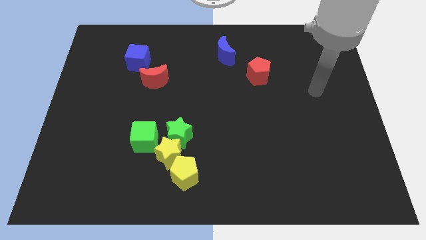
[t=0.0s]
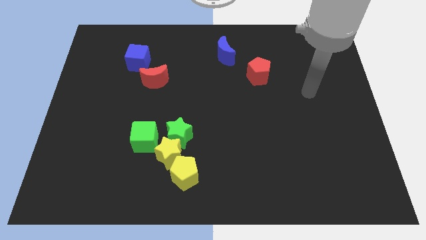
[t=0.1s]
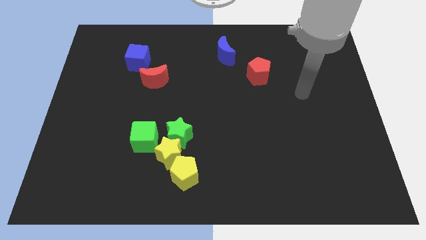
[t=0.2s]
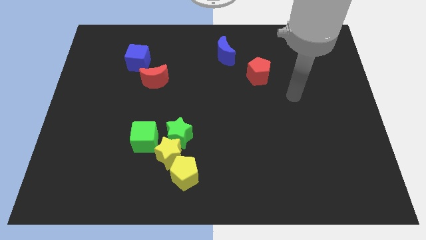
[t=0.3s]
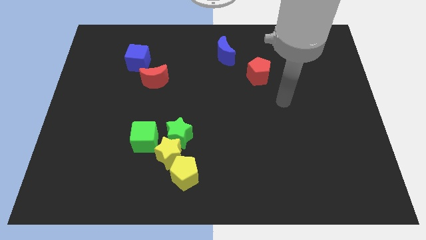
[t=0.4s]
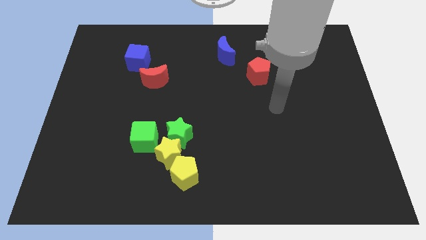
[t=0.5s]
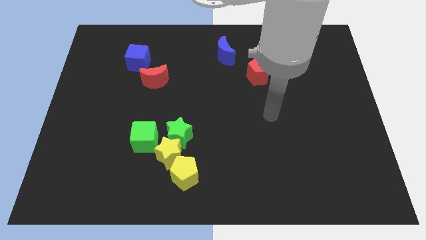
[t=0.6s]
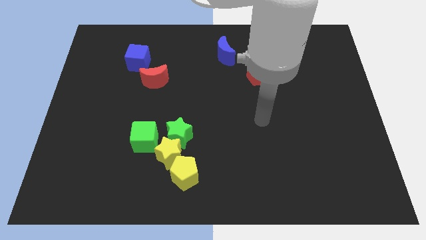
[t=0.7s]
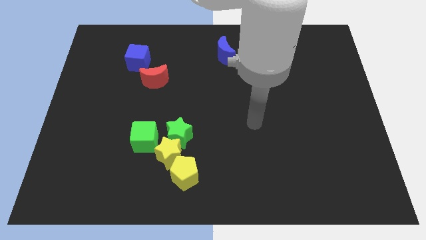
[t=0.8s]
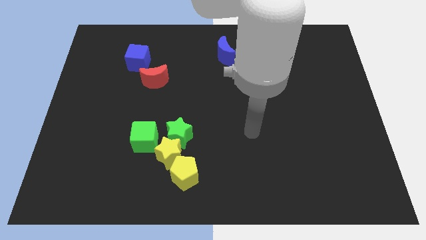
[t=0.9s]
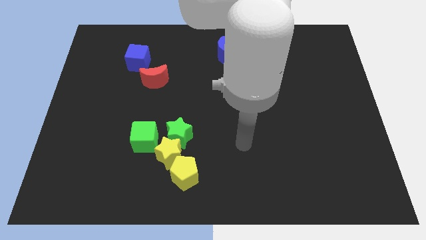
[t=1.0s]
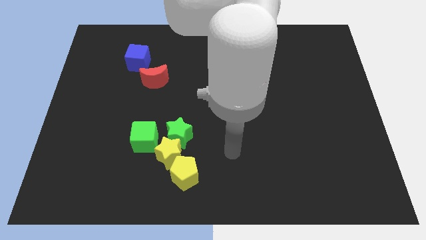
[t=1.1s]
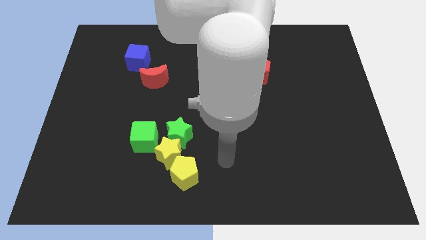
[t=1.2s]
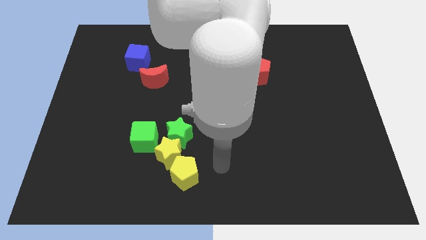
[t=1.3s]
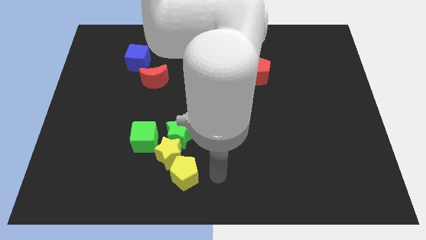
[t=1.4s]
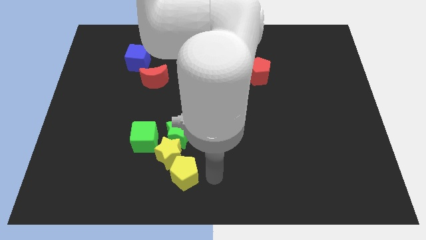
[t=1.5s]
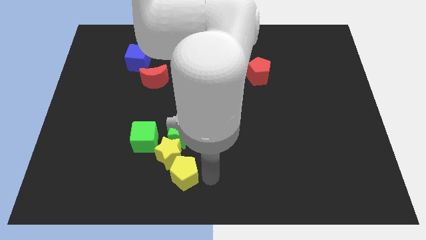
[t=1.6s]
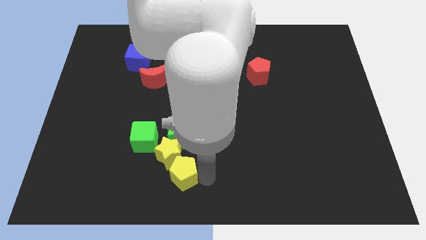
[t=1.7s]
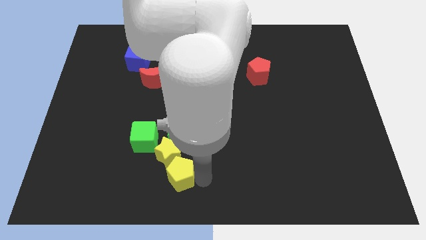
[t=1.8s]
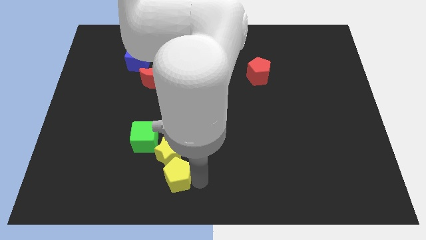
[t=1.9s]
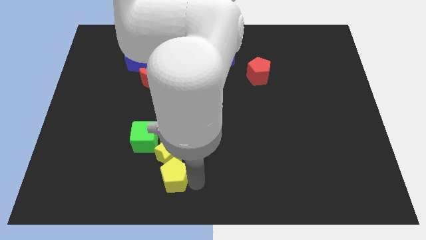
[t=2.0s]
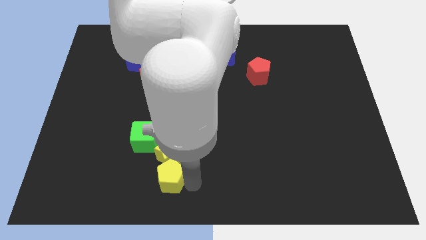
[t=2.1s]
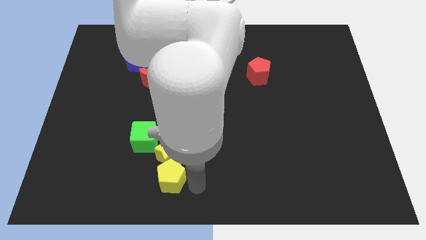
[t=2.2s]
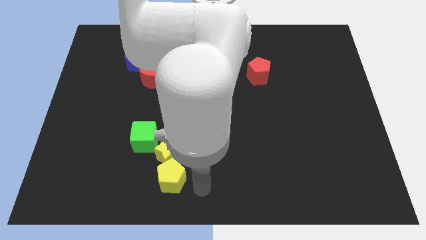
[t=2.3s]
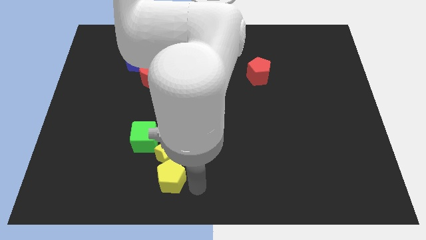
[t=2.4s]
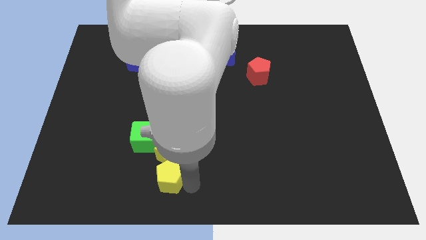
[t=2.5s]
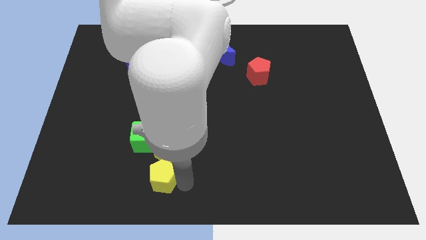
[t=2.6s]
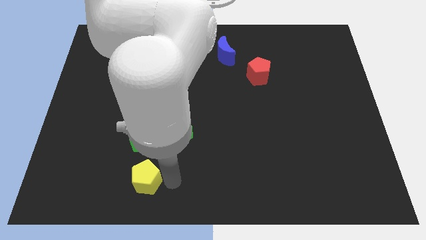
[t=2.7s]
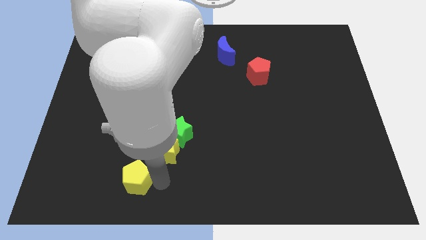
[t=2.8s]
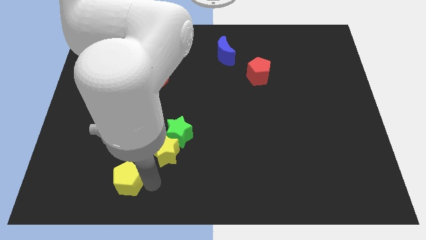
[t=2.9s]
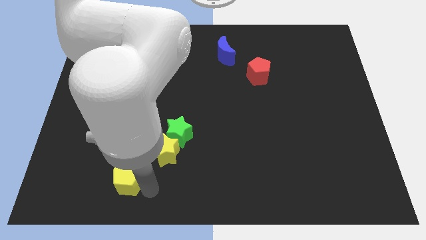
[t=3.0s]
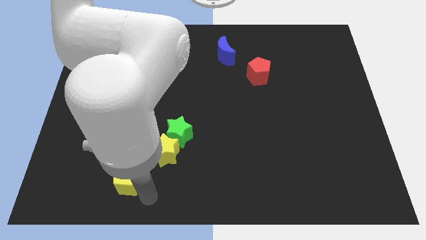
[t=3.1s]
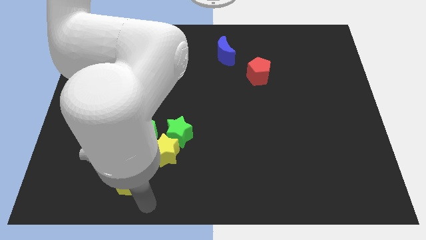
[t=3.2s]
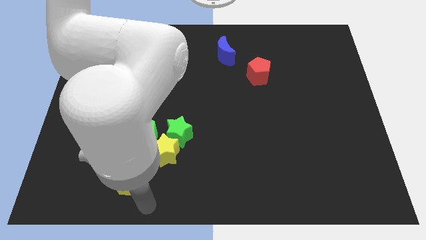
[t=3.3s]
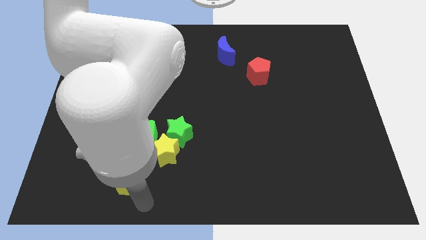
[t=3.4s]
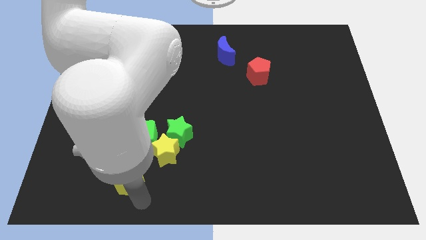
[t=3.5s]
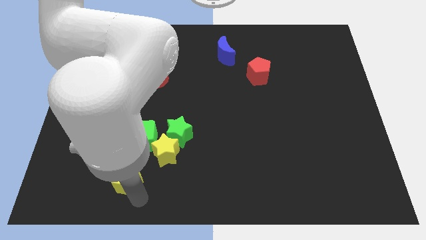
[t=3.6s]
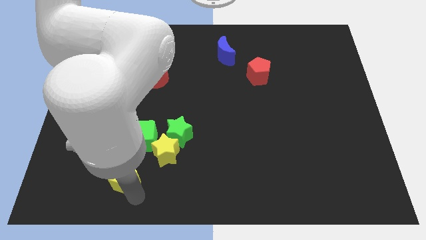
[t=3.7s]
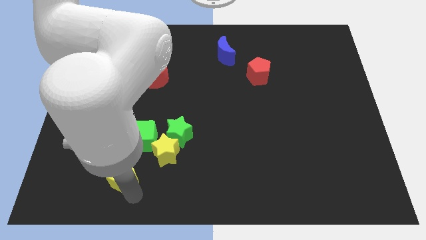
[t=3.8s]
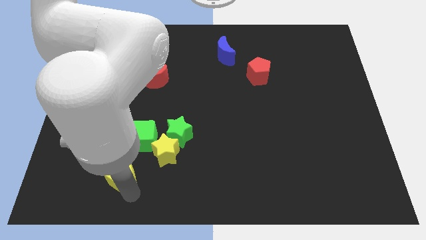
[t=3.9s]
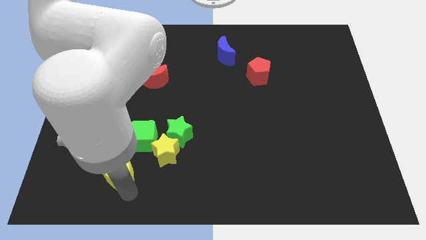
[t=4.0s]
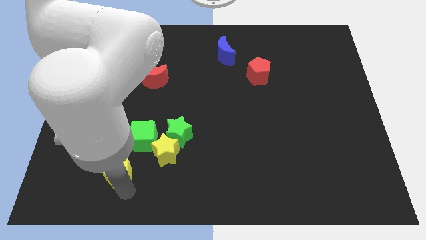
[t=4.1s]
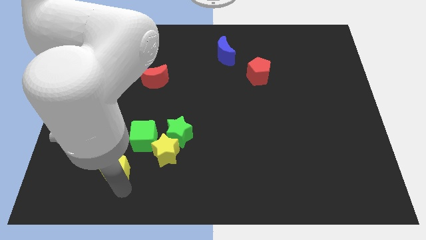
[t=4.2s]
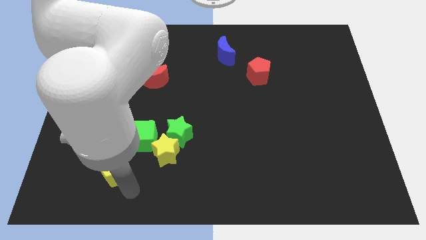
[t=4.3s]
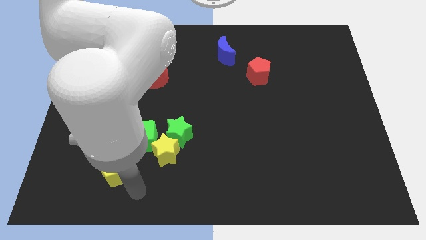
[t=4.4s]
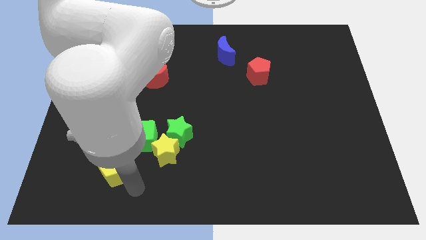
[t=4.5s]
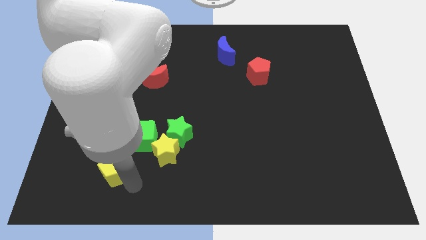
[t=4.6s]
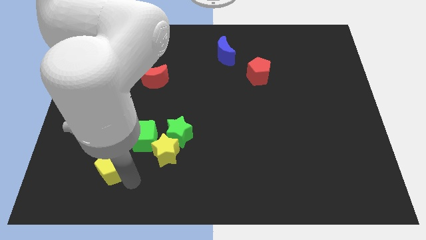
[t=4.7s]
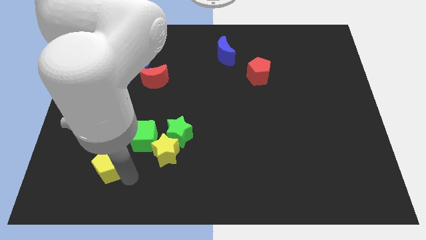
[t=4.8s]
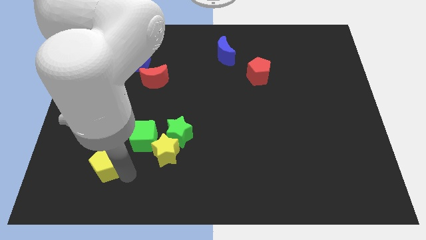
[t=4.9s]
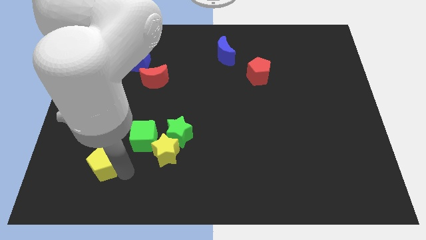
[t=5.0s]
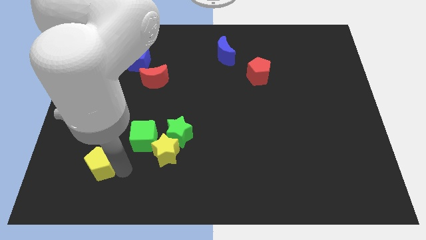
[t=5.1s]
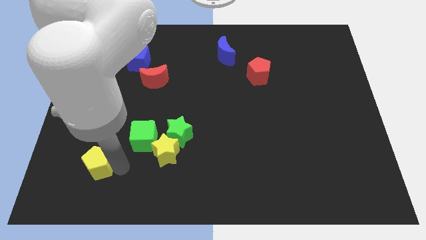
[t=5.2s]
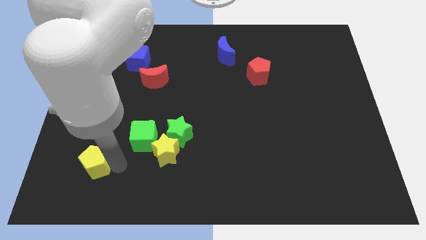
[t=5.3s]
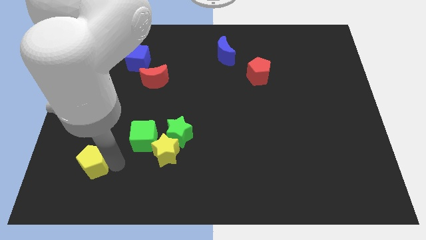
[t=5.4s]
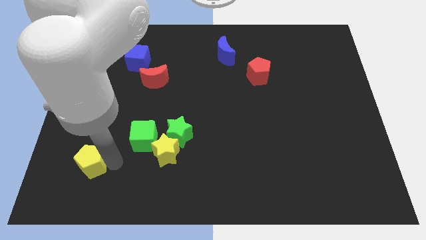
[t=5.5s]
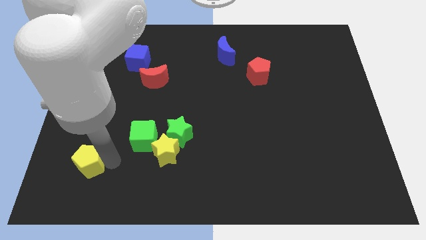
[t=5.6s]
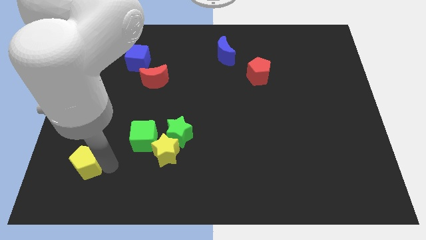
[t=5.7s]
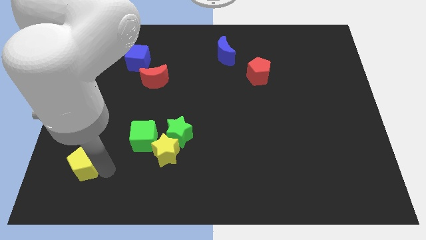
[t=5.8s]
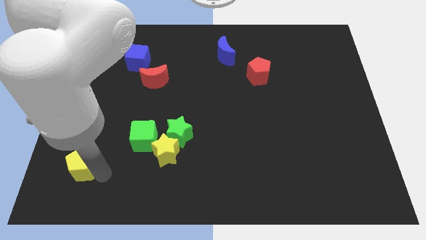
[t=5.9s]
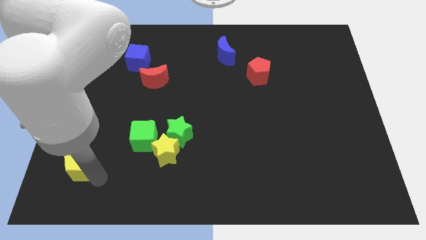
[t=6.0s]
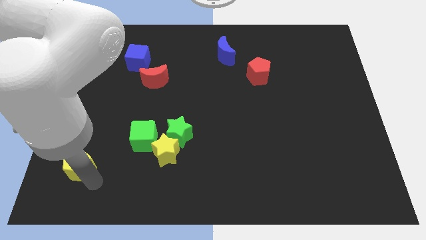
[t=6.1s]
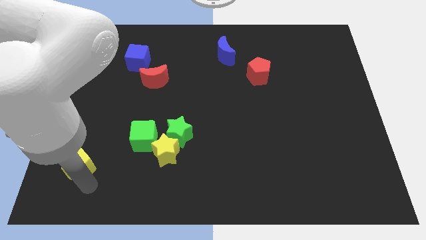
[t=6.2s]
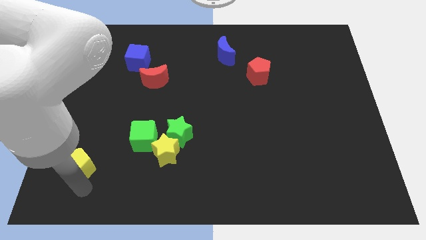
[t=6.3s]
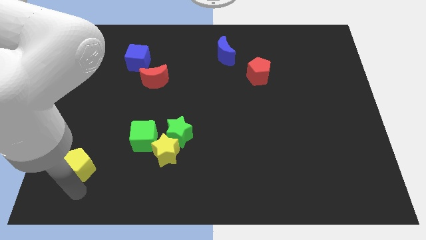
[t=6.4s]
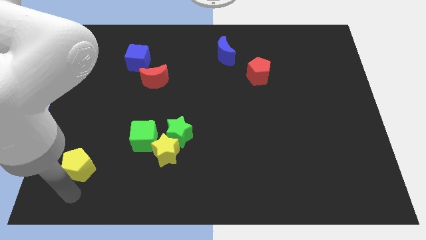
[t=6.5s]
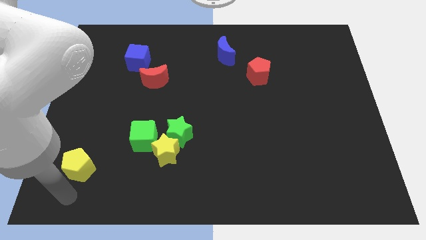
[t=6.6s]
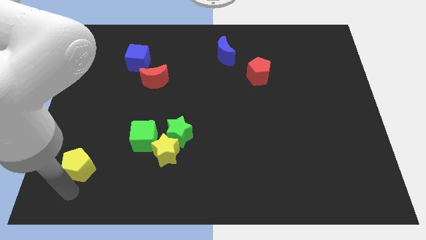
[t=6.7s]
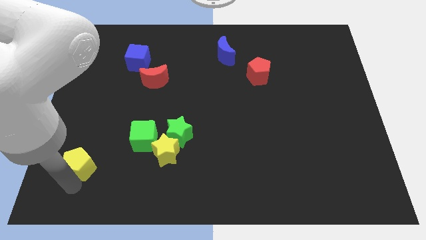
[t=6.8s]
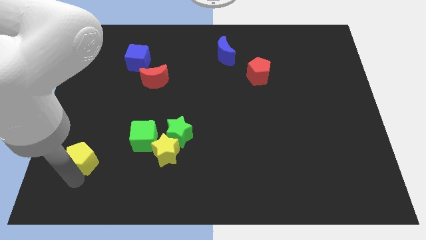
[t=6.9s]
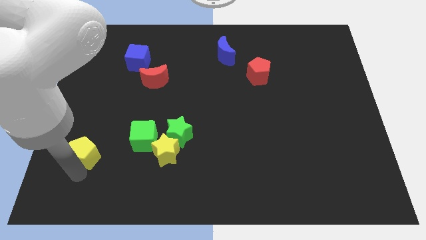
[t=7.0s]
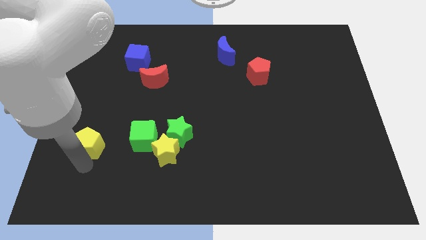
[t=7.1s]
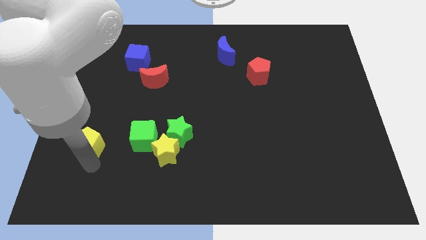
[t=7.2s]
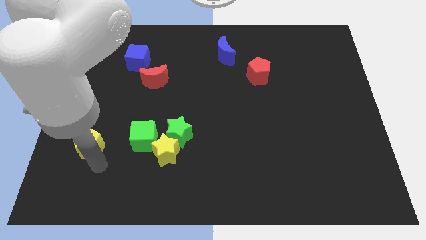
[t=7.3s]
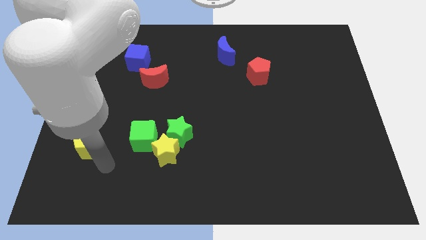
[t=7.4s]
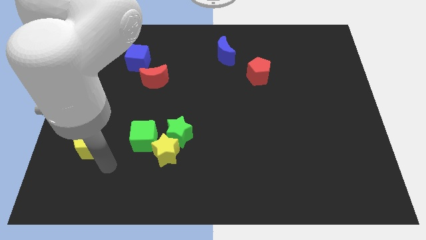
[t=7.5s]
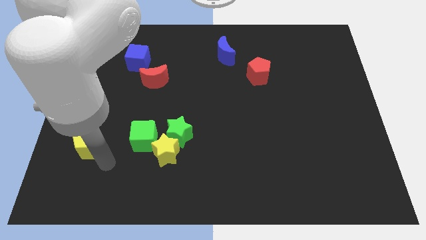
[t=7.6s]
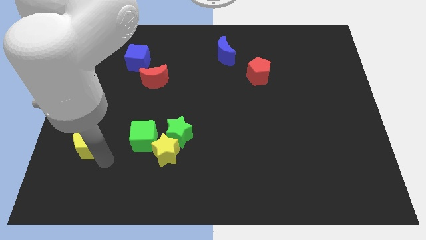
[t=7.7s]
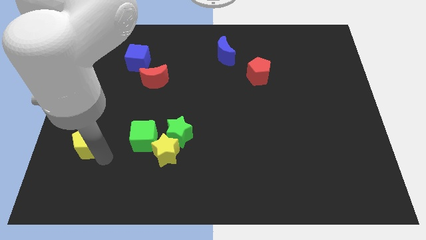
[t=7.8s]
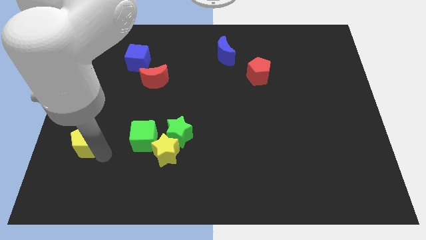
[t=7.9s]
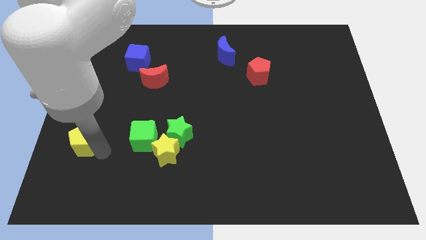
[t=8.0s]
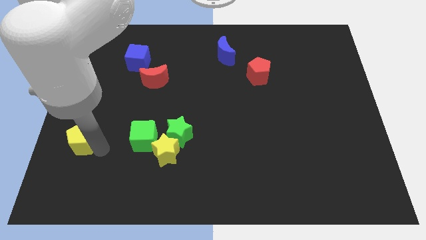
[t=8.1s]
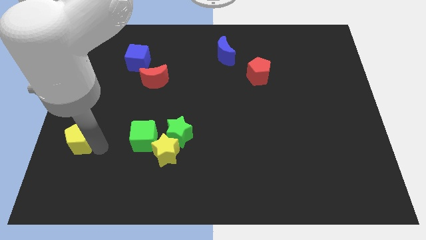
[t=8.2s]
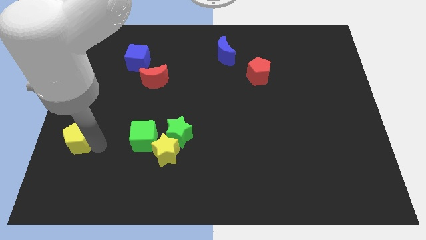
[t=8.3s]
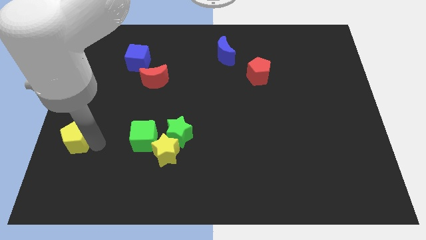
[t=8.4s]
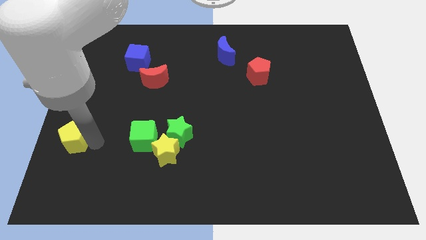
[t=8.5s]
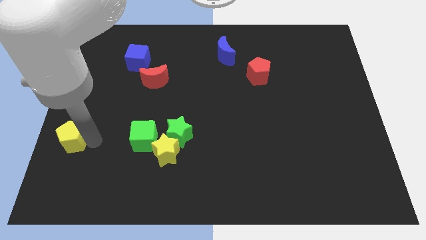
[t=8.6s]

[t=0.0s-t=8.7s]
slide the yellow pentagon to the center left
